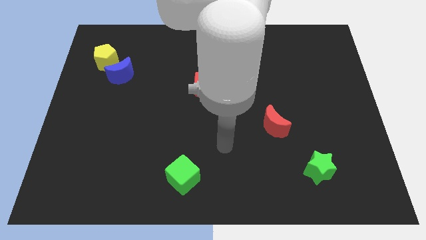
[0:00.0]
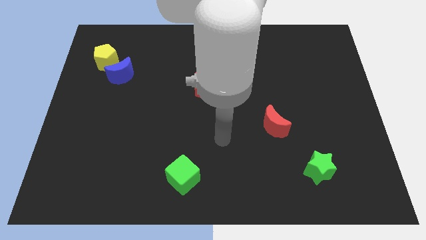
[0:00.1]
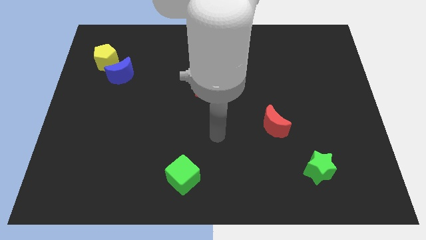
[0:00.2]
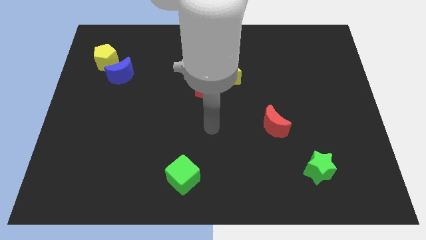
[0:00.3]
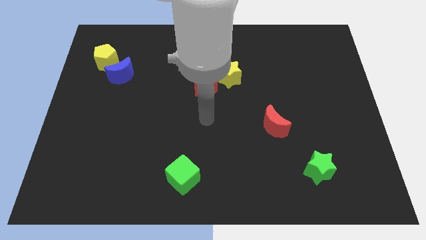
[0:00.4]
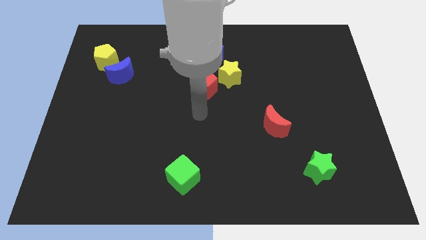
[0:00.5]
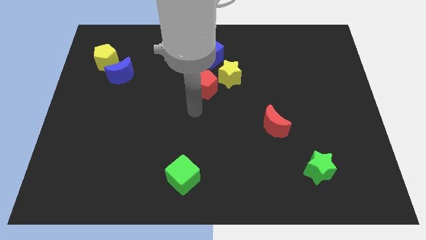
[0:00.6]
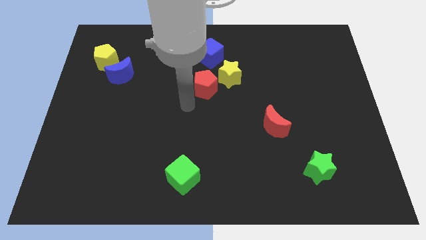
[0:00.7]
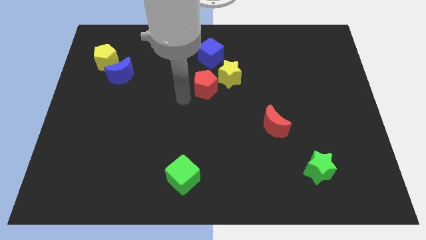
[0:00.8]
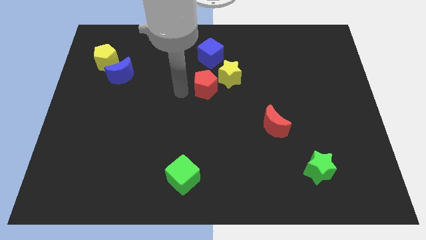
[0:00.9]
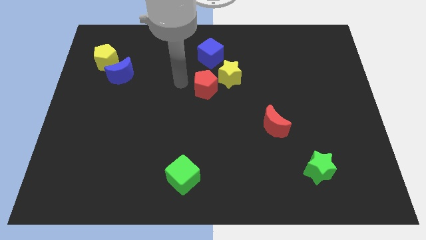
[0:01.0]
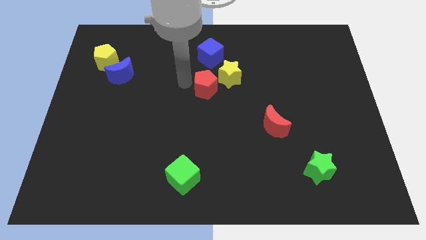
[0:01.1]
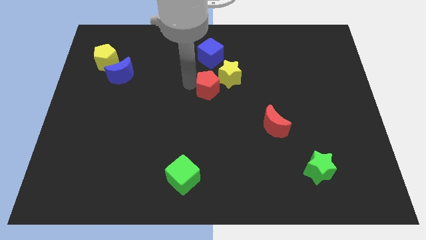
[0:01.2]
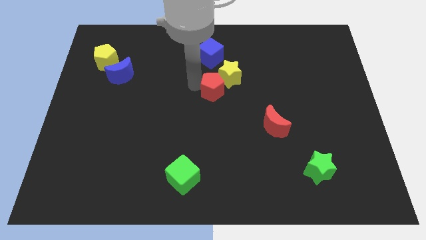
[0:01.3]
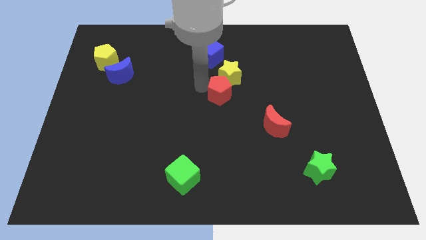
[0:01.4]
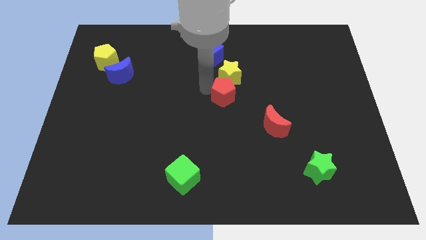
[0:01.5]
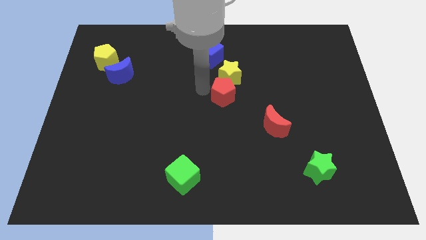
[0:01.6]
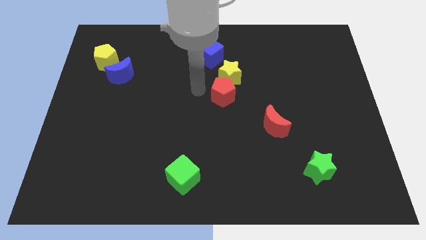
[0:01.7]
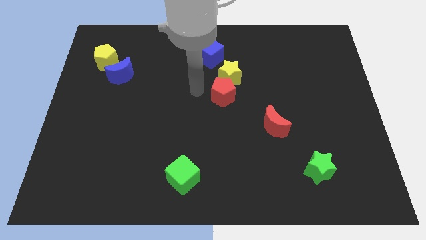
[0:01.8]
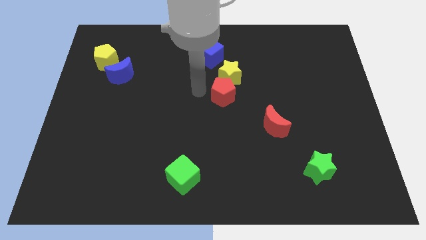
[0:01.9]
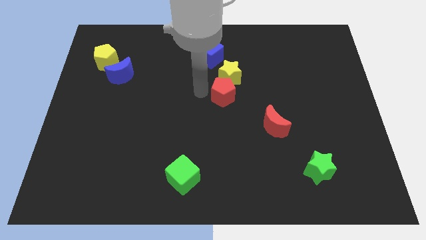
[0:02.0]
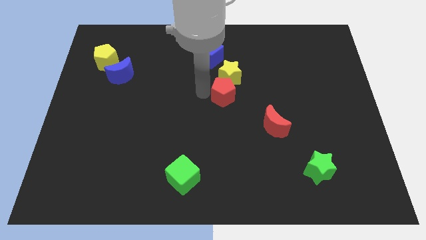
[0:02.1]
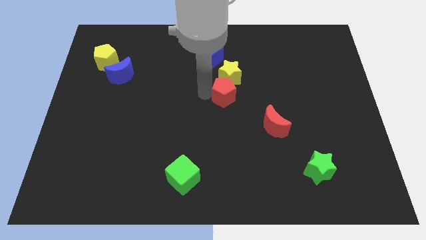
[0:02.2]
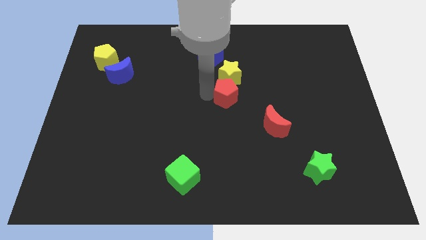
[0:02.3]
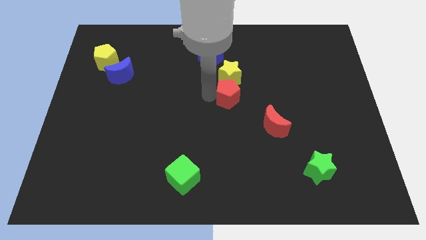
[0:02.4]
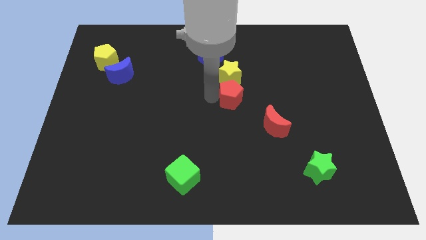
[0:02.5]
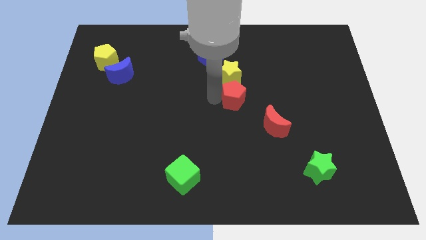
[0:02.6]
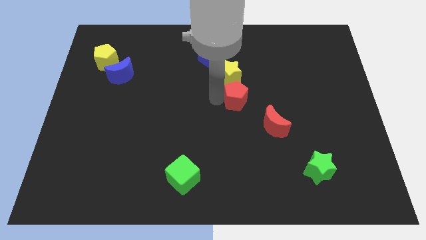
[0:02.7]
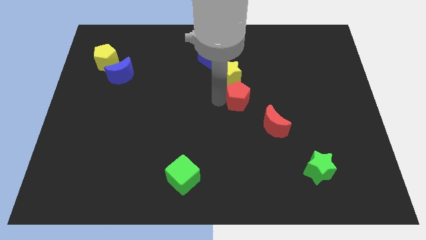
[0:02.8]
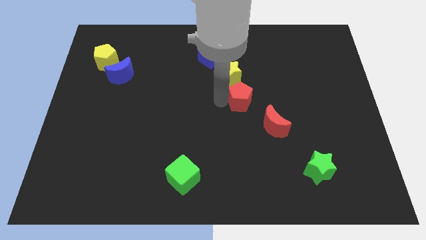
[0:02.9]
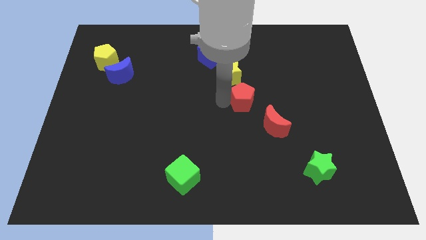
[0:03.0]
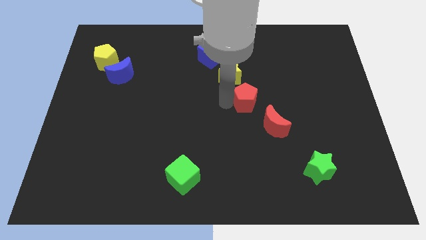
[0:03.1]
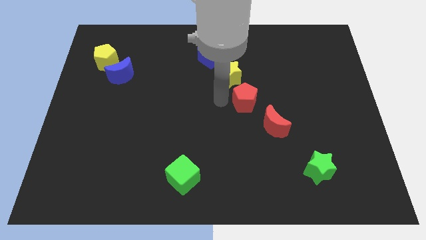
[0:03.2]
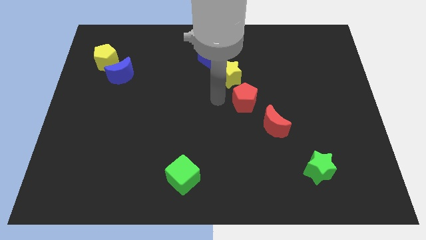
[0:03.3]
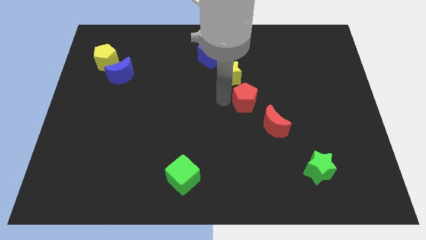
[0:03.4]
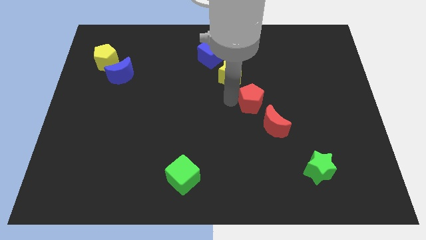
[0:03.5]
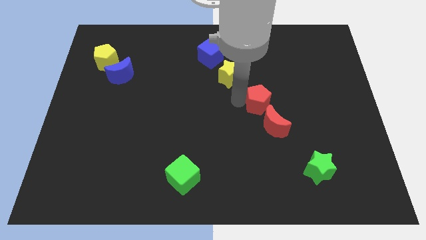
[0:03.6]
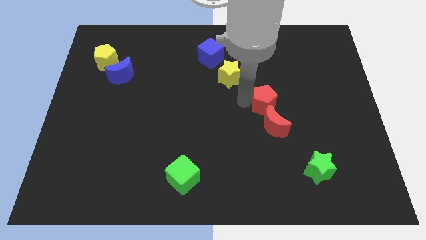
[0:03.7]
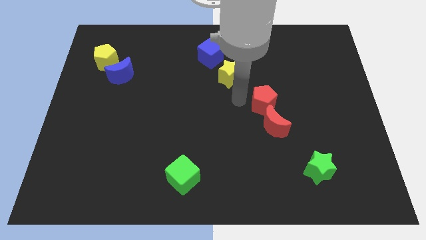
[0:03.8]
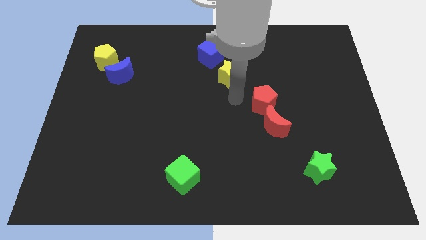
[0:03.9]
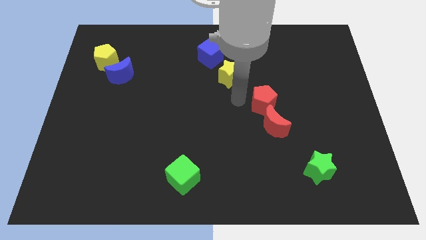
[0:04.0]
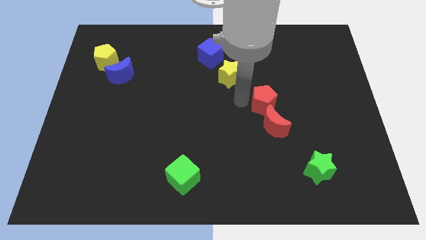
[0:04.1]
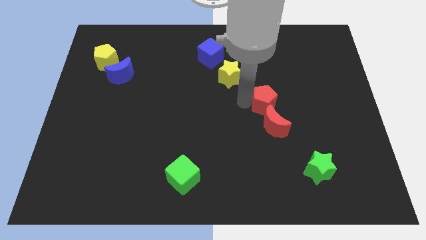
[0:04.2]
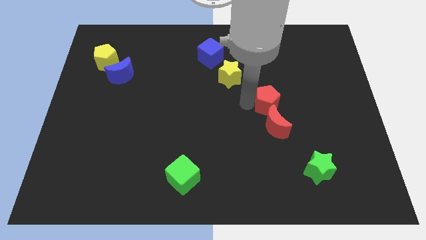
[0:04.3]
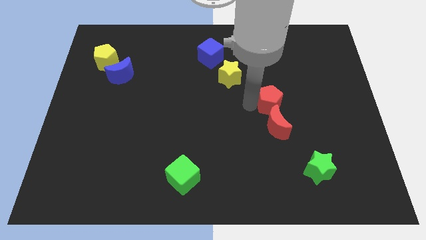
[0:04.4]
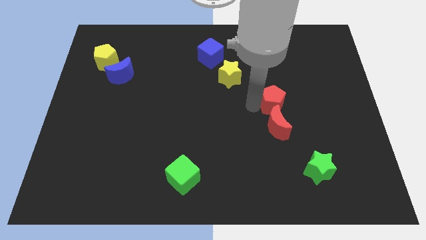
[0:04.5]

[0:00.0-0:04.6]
push the red pentagon to the top right side of the red moon

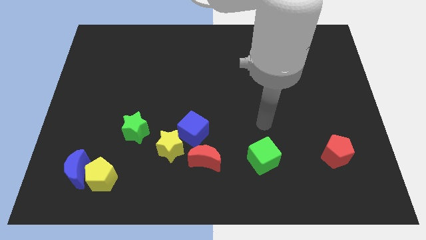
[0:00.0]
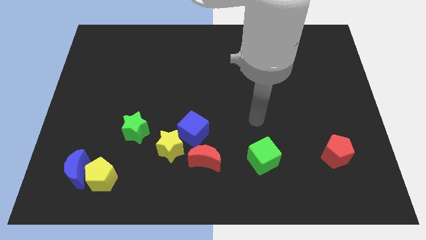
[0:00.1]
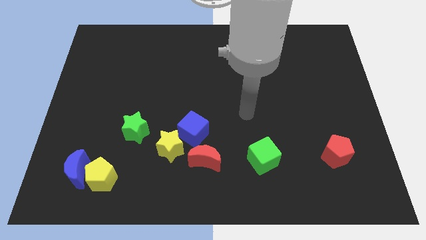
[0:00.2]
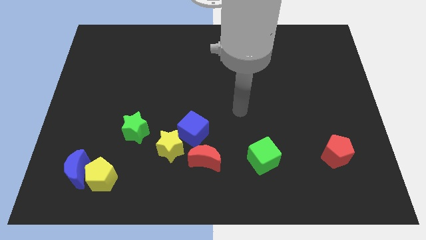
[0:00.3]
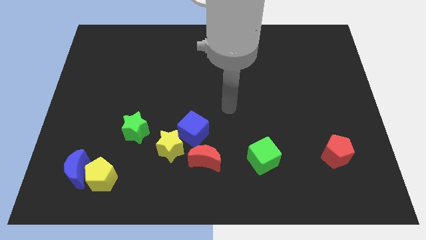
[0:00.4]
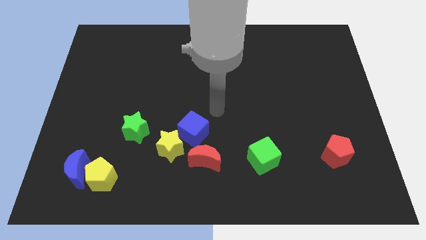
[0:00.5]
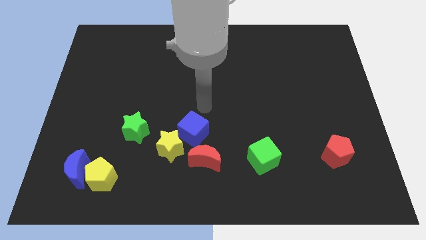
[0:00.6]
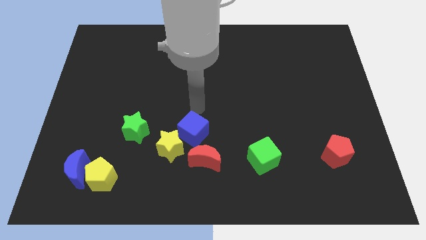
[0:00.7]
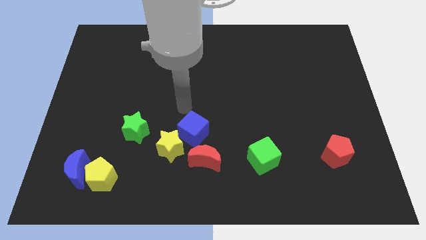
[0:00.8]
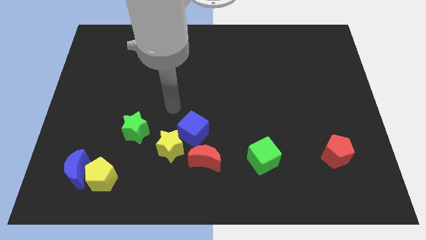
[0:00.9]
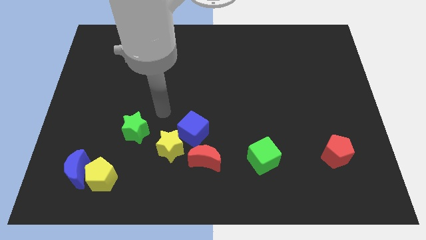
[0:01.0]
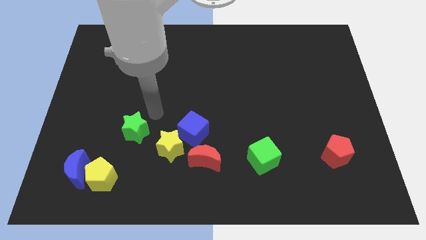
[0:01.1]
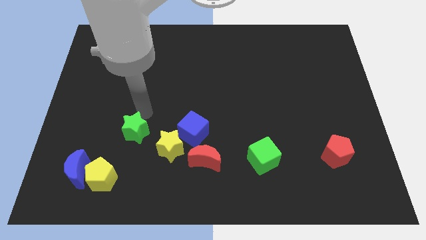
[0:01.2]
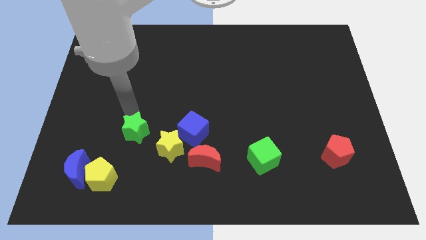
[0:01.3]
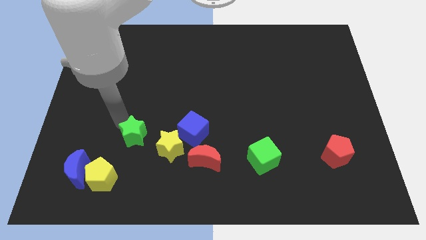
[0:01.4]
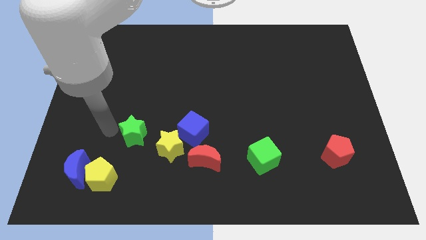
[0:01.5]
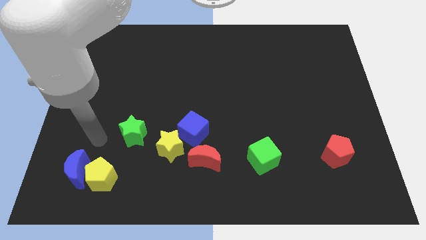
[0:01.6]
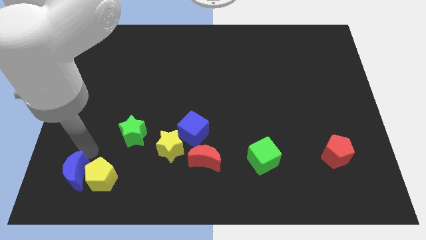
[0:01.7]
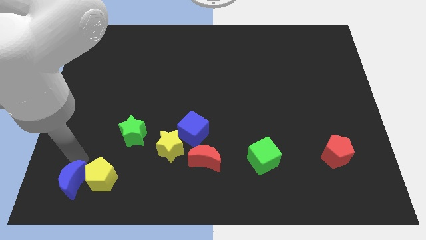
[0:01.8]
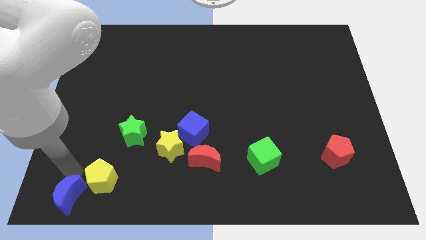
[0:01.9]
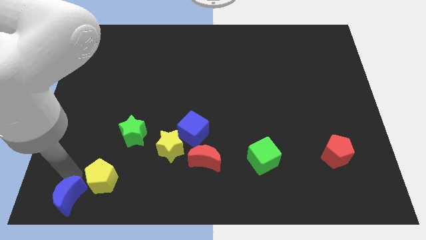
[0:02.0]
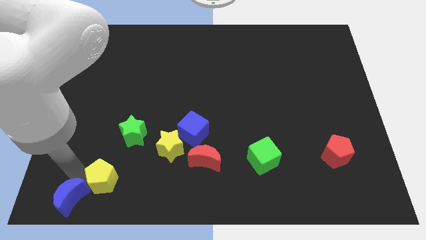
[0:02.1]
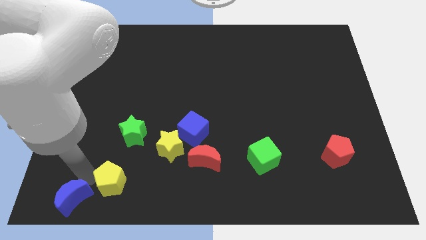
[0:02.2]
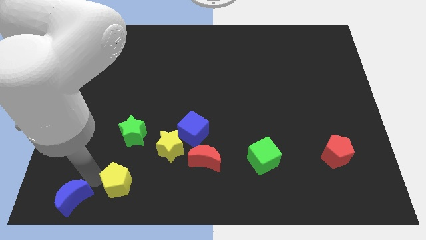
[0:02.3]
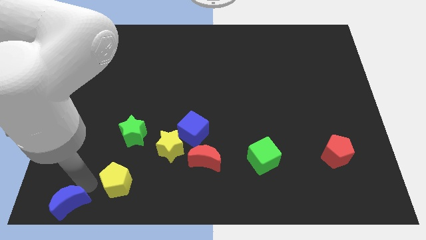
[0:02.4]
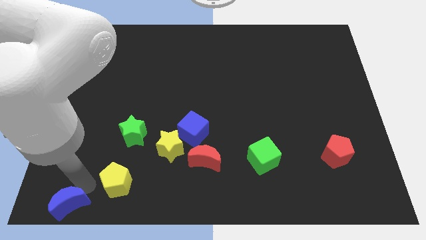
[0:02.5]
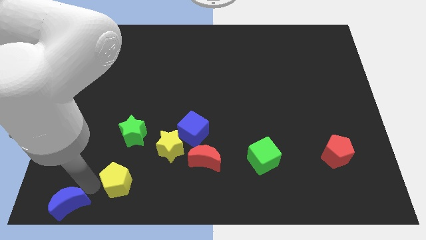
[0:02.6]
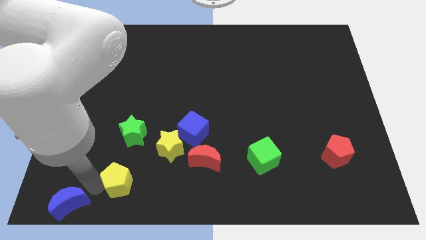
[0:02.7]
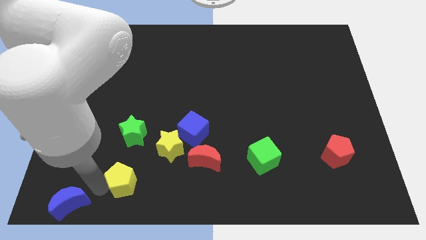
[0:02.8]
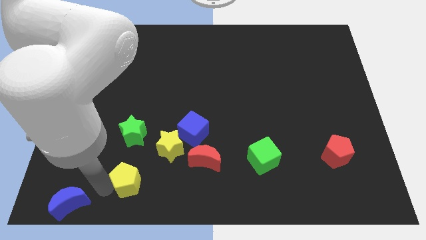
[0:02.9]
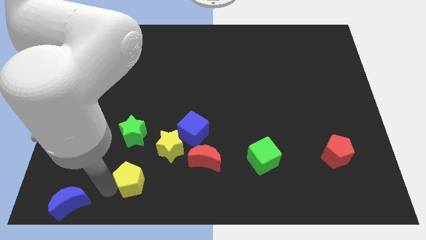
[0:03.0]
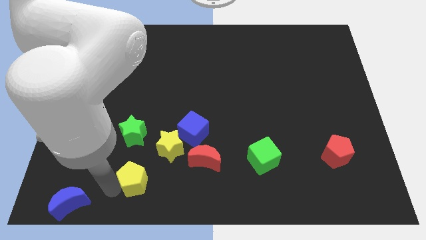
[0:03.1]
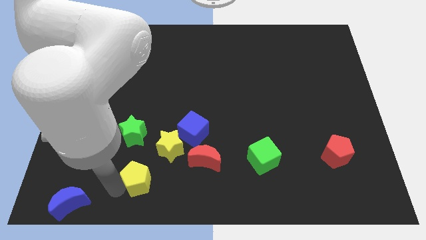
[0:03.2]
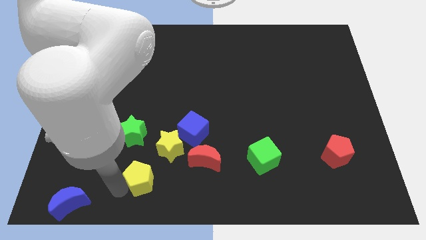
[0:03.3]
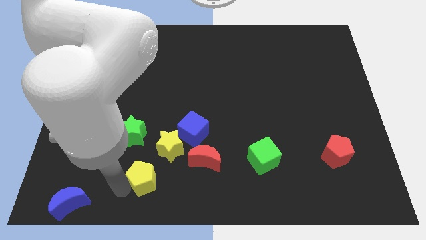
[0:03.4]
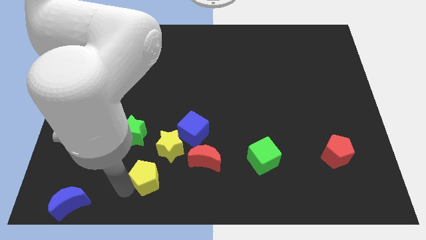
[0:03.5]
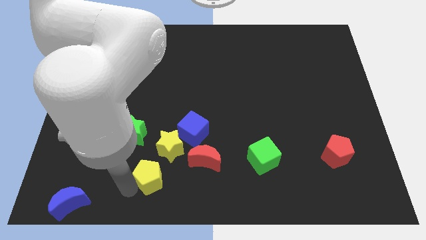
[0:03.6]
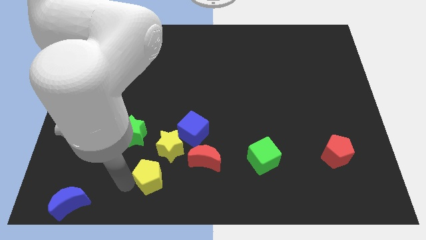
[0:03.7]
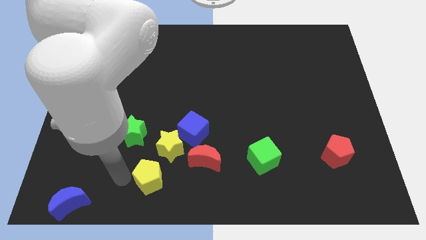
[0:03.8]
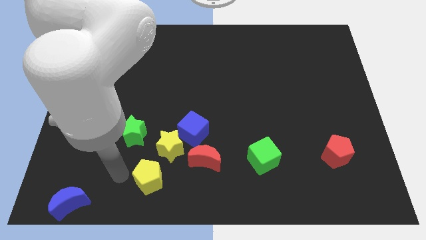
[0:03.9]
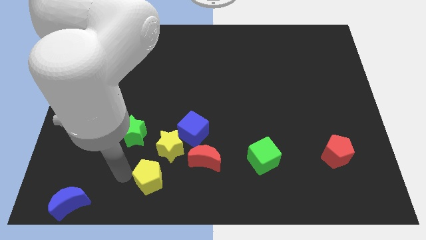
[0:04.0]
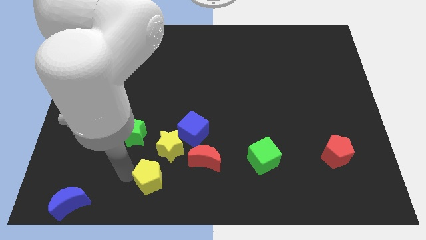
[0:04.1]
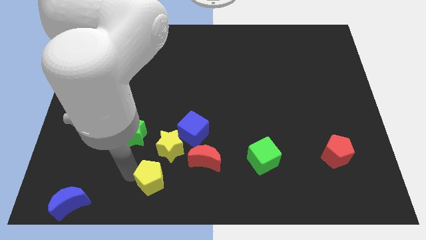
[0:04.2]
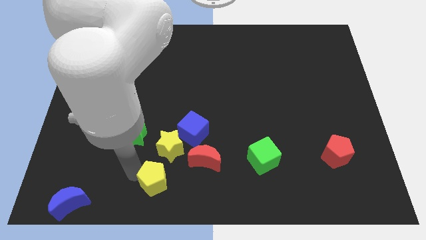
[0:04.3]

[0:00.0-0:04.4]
move the yellow pentagon to the bottom left of the red moon
